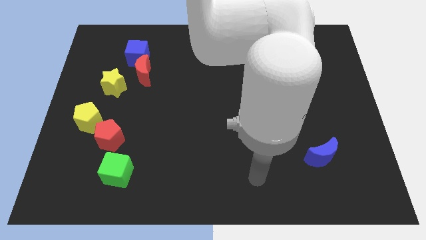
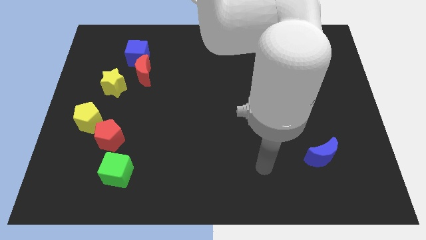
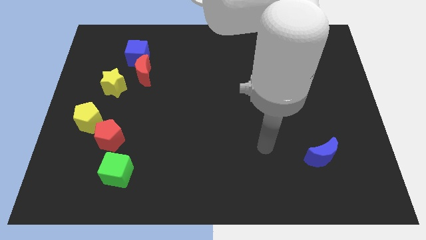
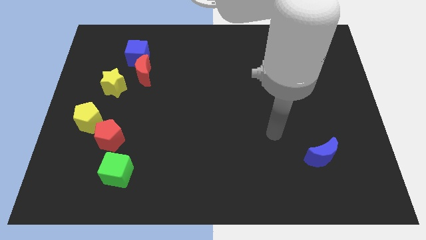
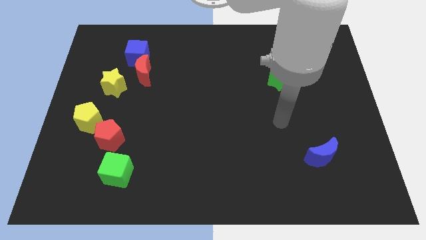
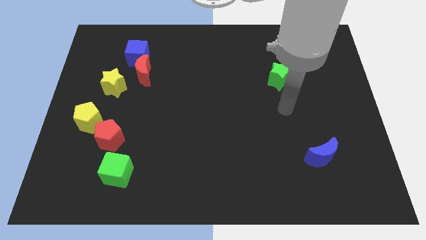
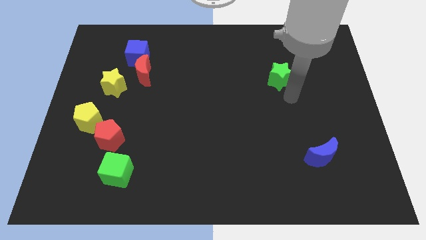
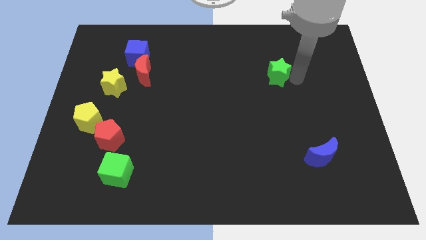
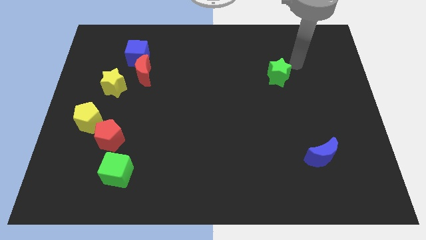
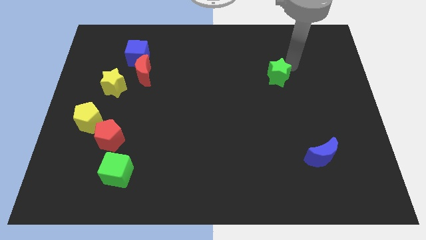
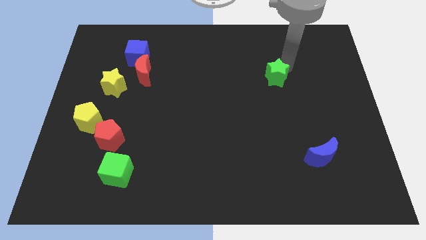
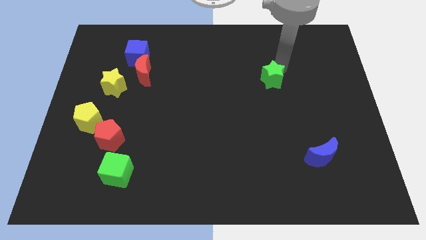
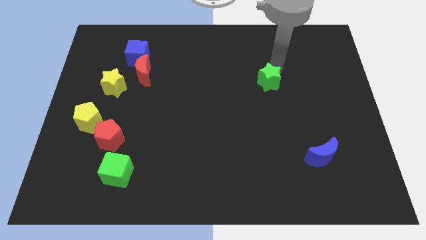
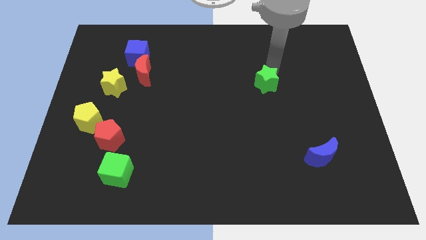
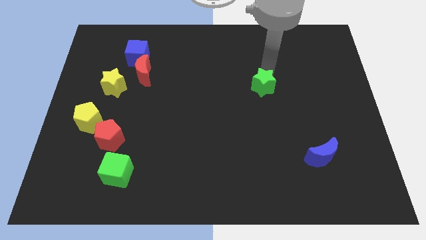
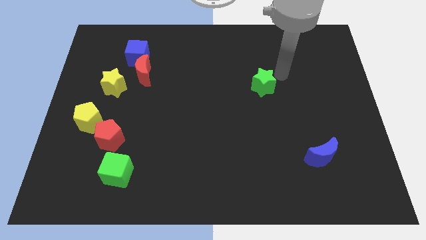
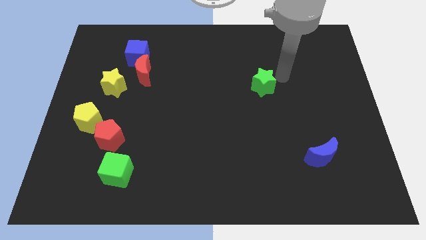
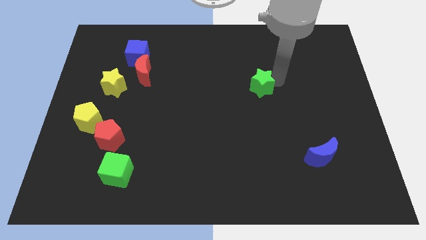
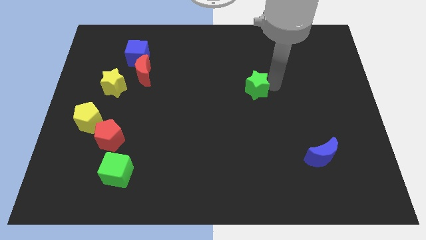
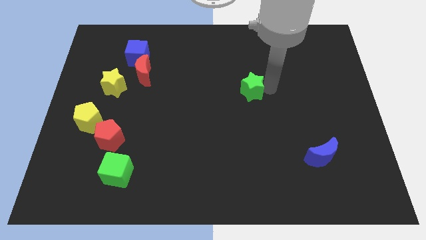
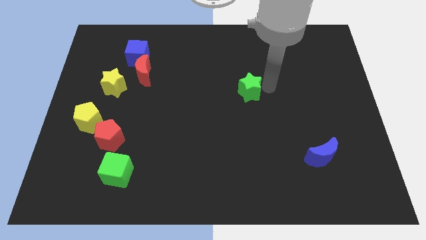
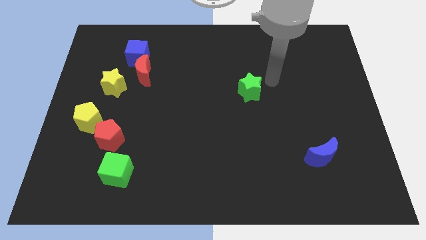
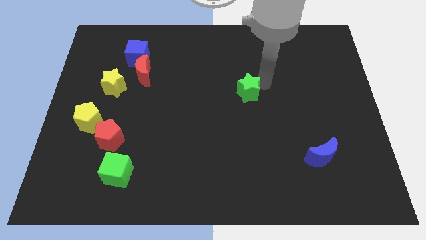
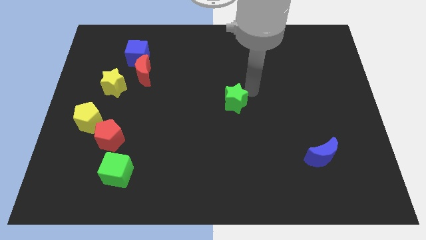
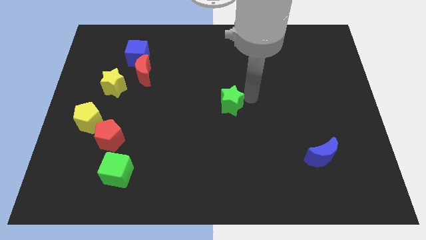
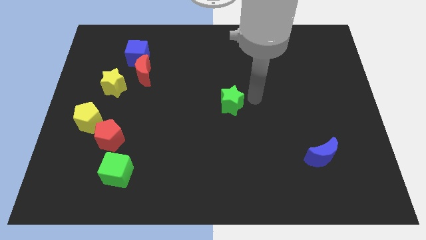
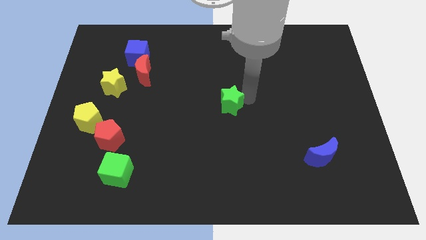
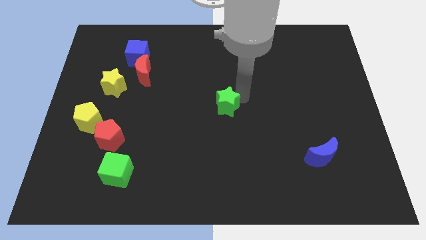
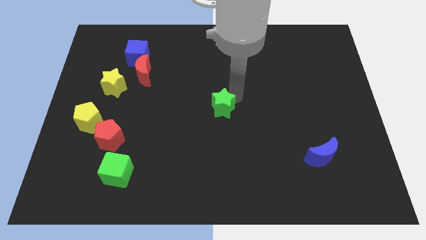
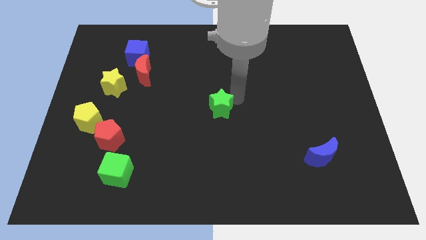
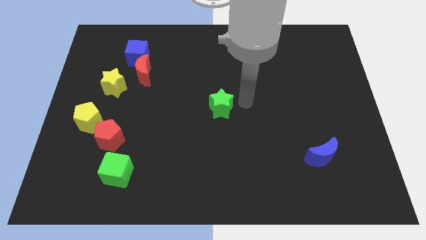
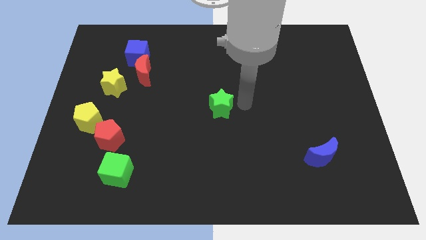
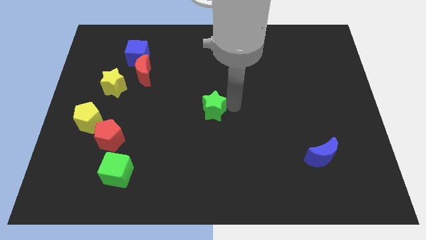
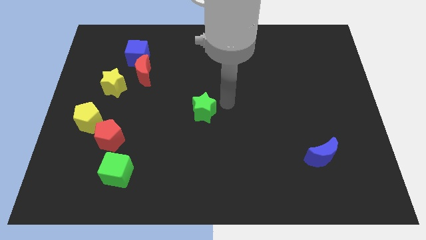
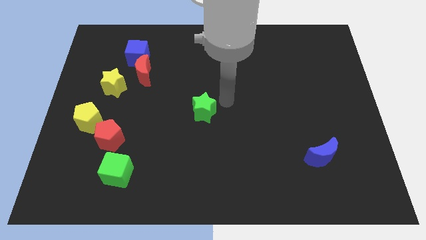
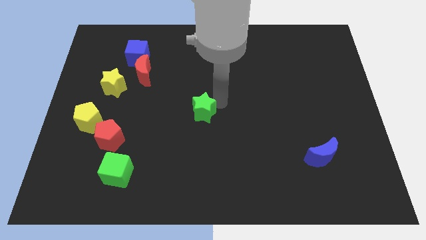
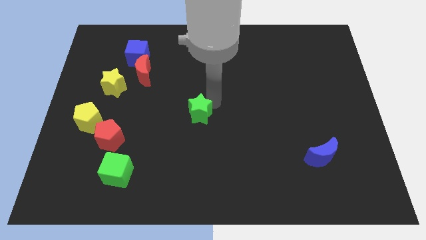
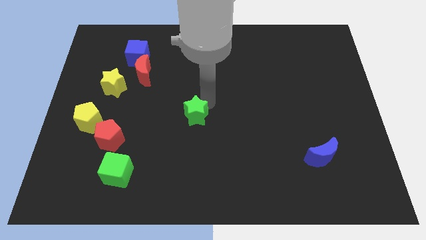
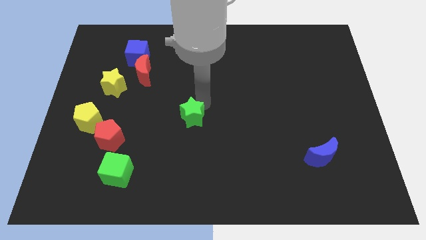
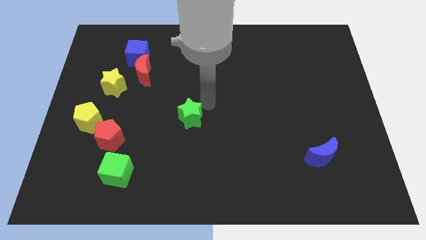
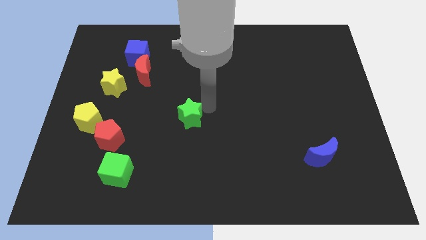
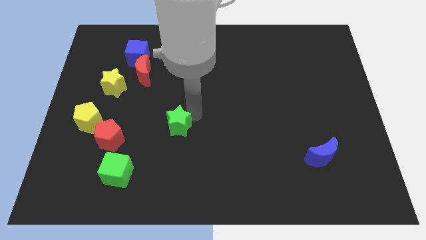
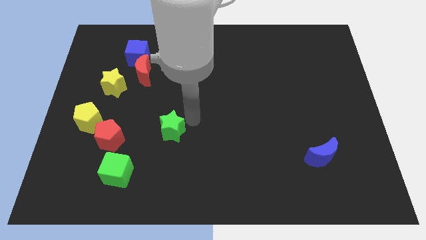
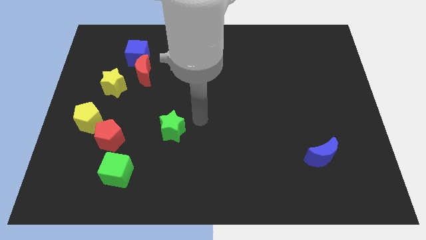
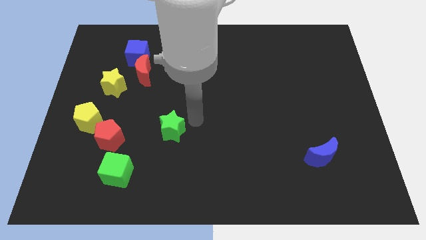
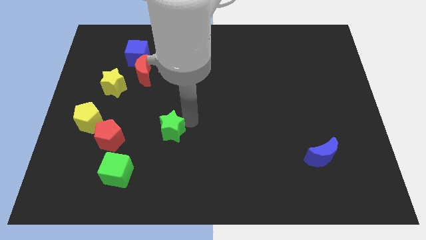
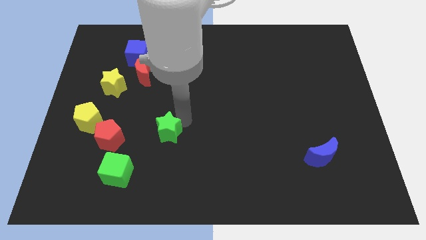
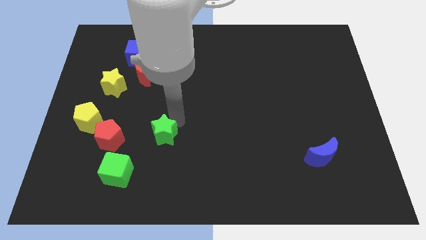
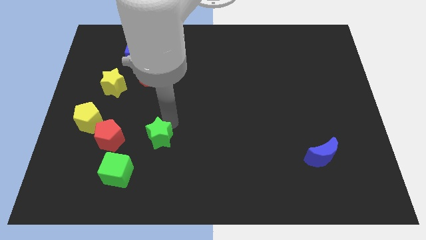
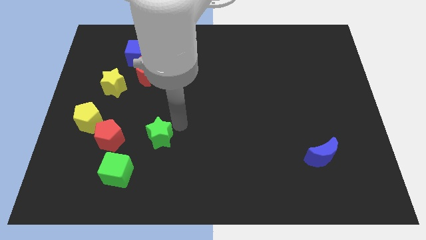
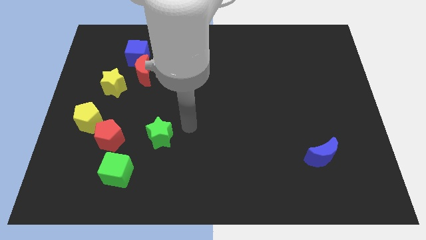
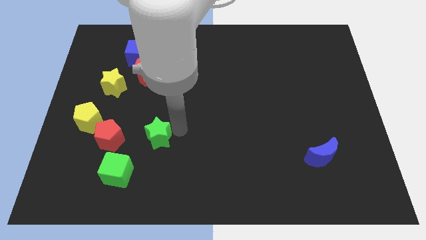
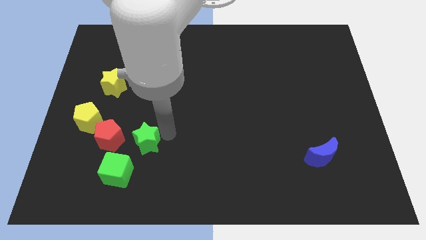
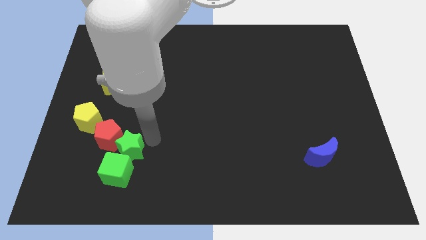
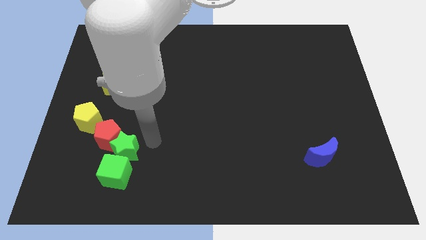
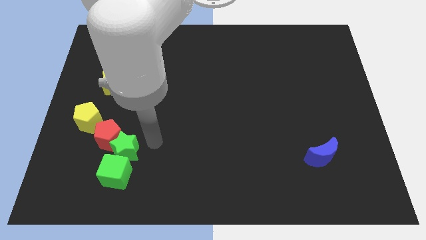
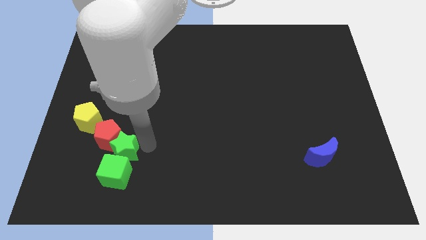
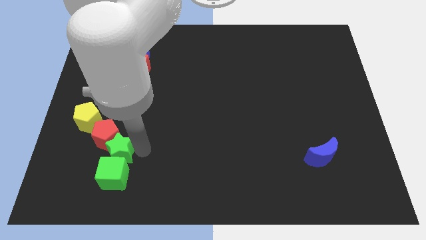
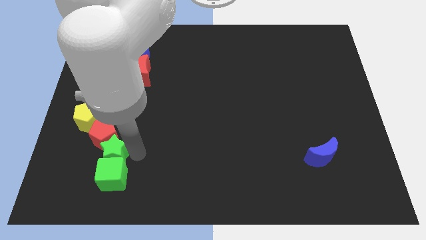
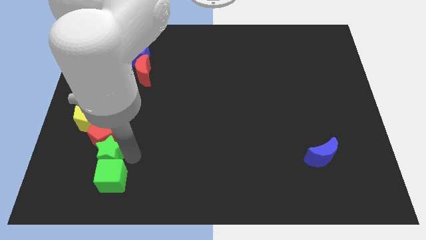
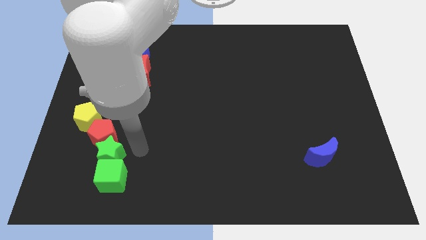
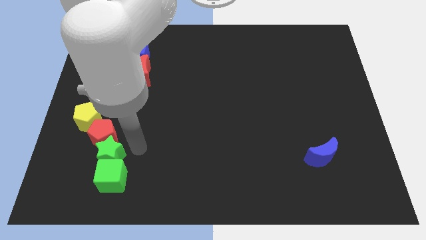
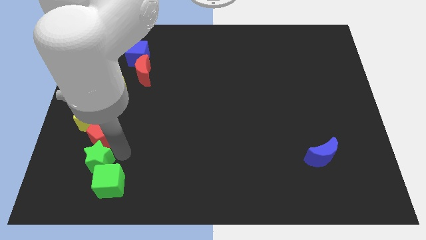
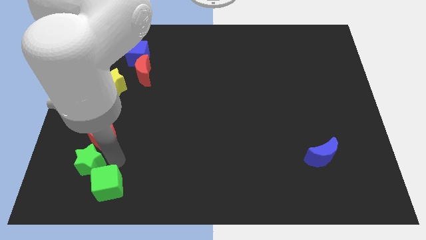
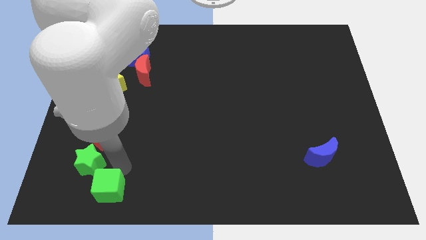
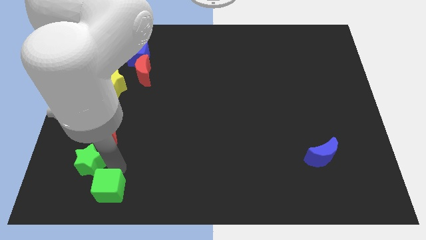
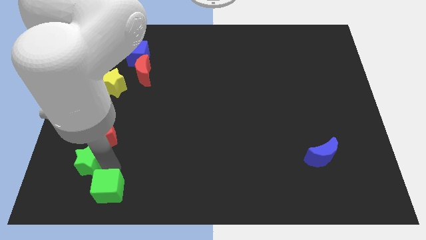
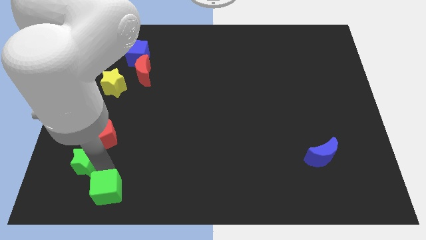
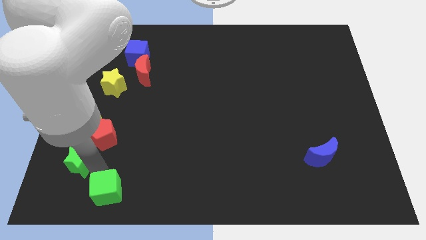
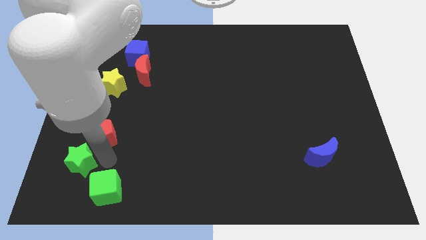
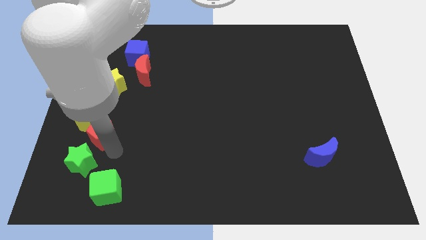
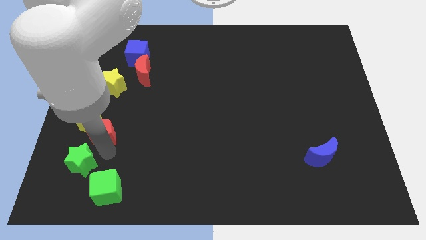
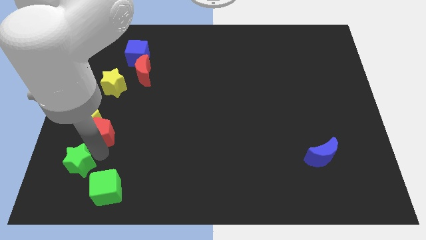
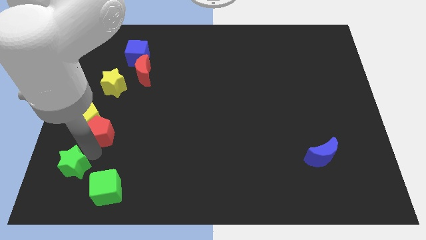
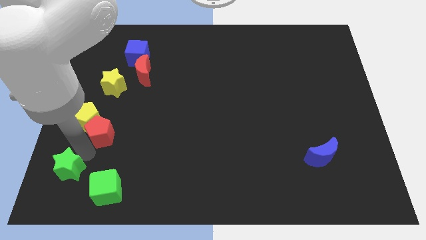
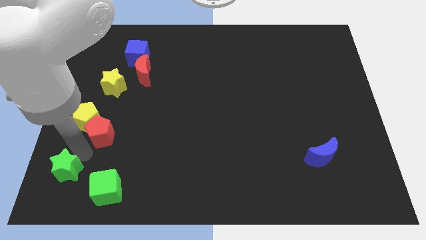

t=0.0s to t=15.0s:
move the green star to the bottom left of the board
